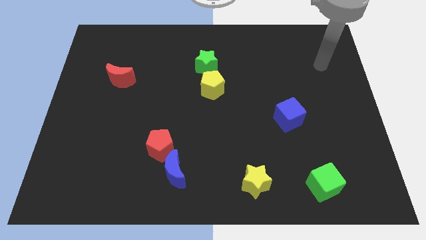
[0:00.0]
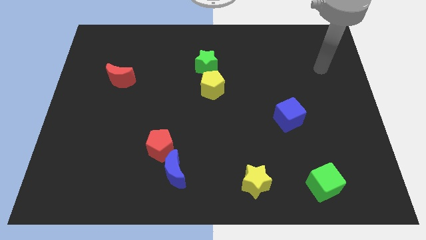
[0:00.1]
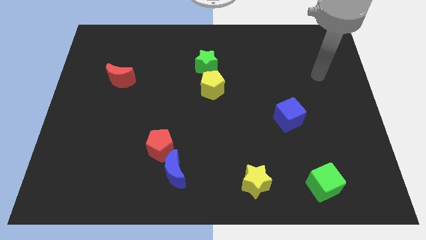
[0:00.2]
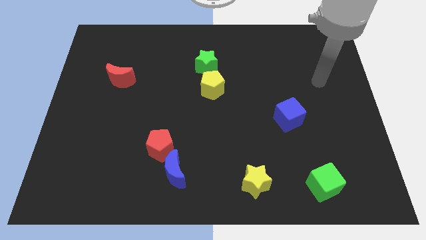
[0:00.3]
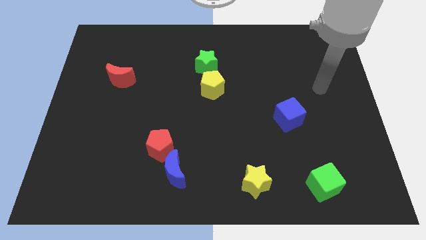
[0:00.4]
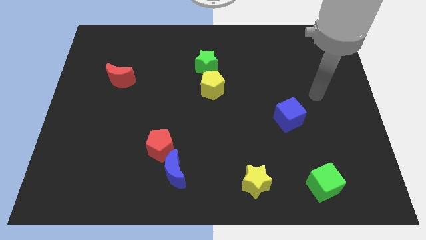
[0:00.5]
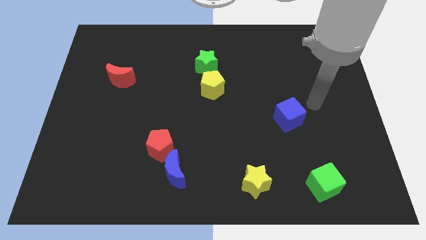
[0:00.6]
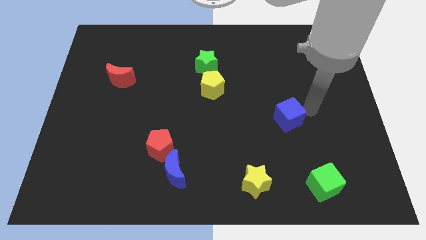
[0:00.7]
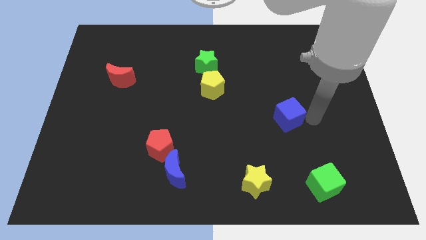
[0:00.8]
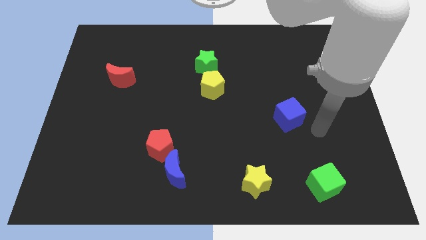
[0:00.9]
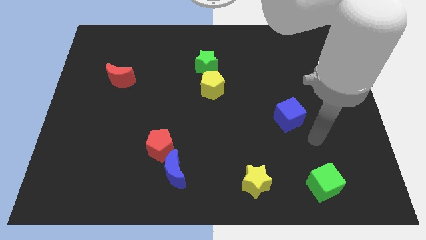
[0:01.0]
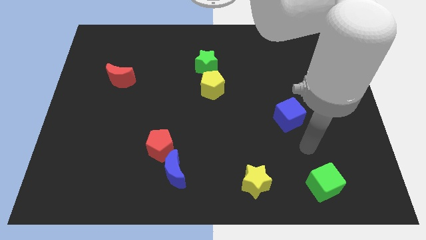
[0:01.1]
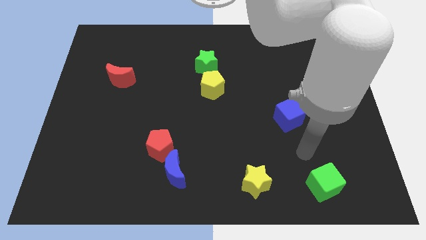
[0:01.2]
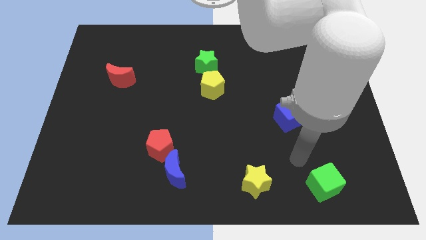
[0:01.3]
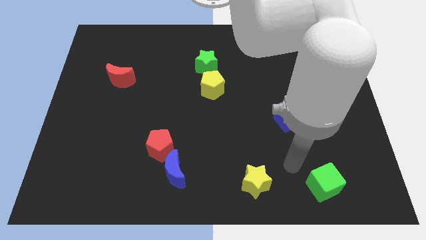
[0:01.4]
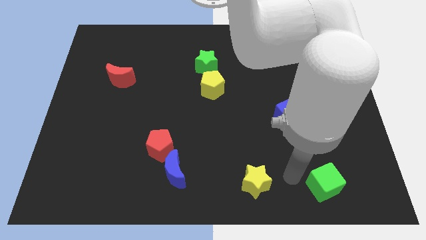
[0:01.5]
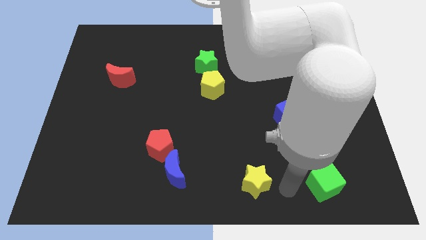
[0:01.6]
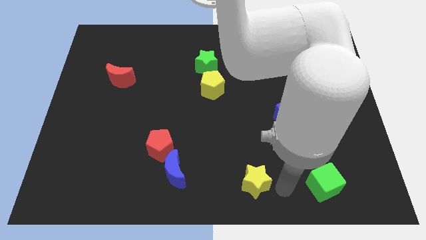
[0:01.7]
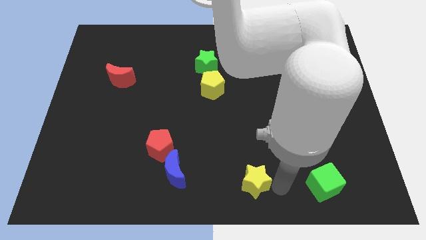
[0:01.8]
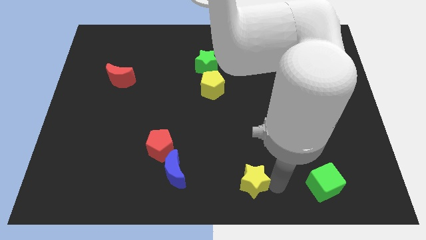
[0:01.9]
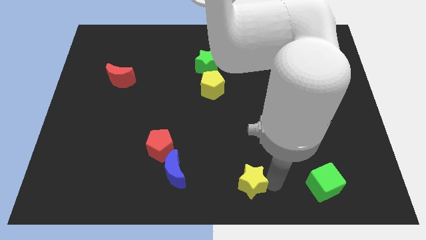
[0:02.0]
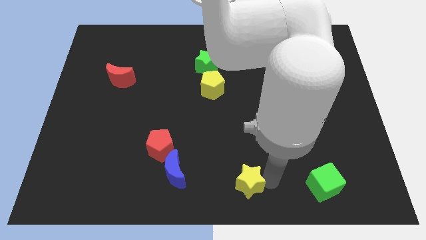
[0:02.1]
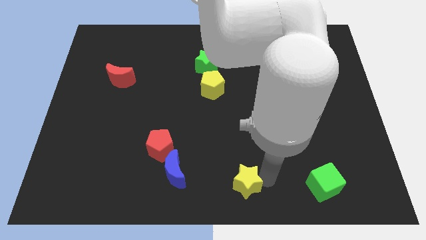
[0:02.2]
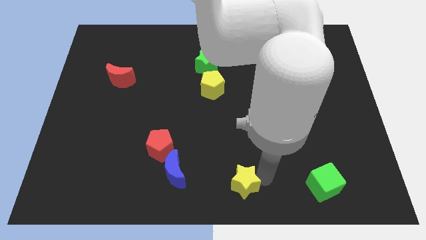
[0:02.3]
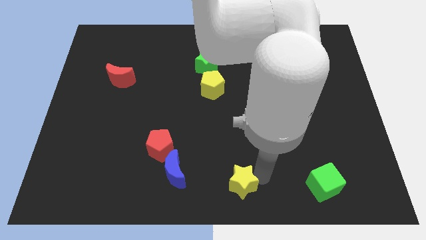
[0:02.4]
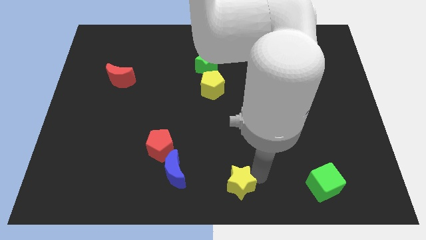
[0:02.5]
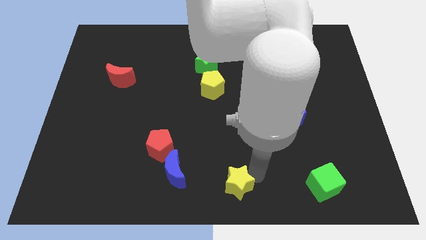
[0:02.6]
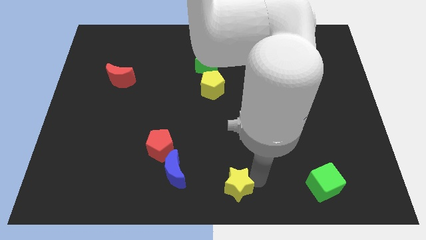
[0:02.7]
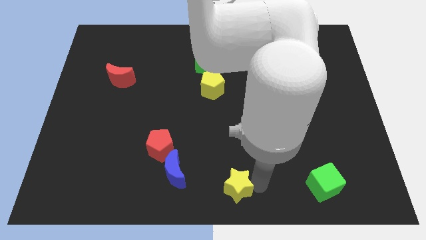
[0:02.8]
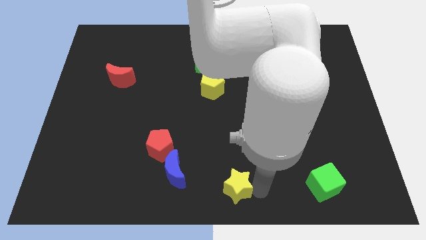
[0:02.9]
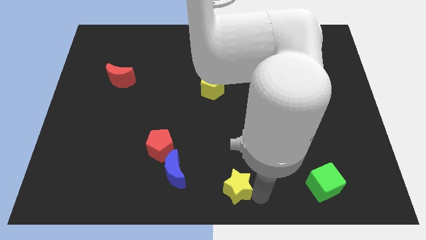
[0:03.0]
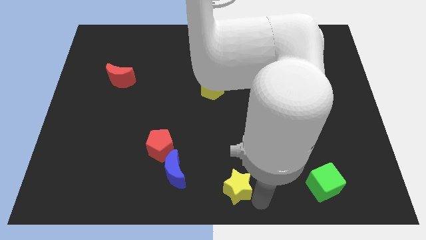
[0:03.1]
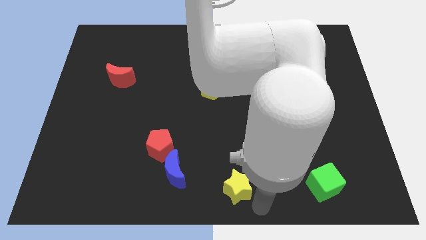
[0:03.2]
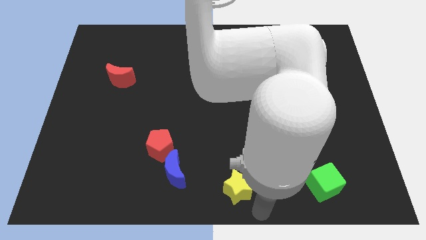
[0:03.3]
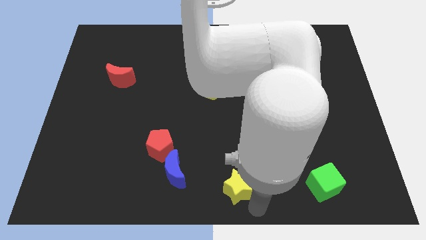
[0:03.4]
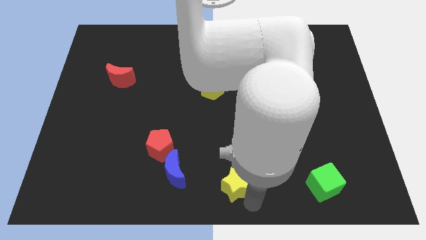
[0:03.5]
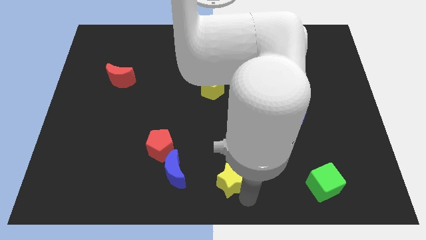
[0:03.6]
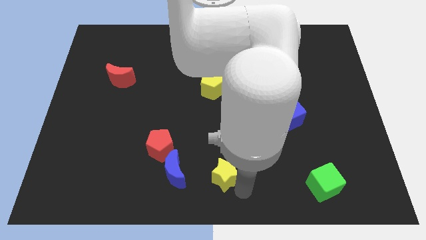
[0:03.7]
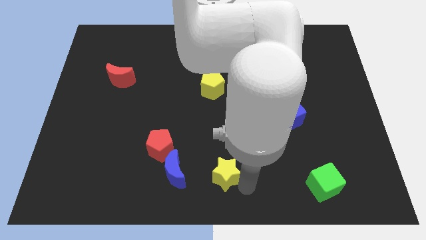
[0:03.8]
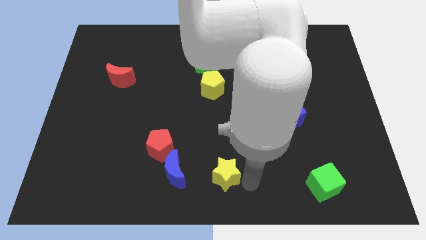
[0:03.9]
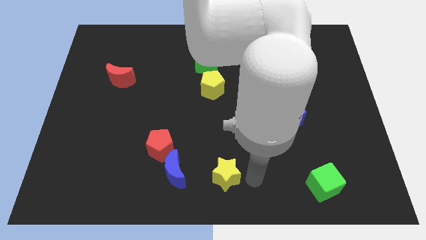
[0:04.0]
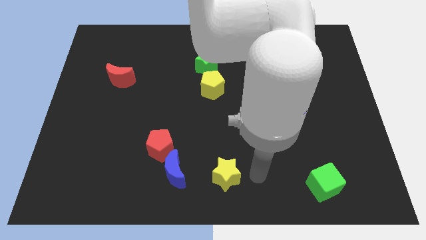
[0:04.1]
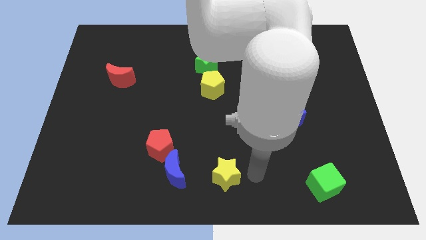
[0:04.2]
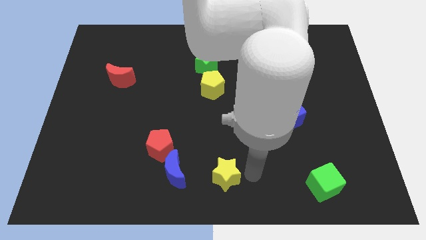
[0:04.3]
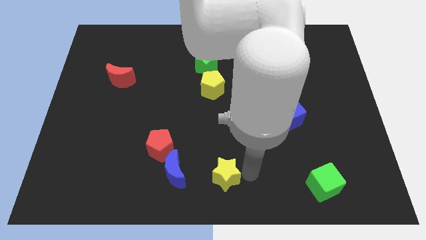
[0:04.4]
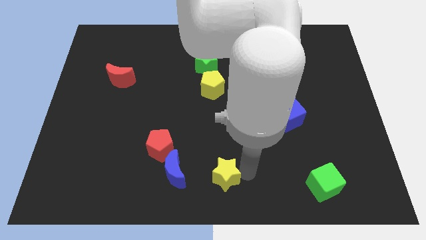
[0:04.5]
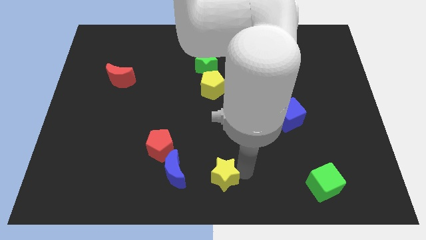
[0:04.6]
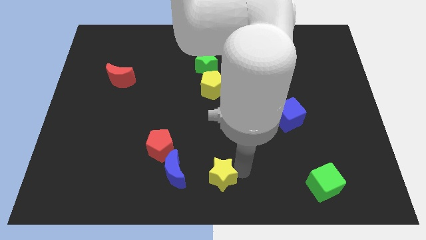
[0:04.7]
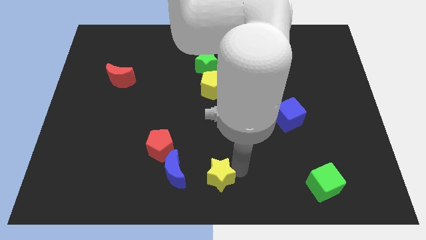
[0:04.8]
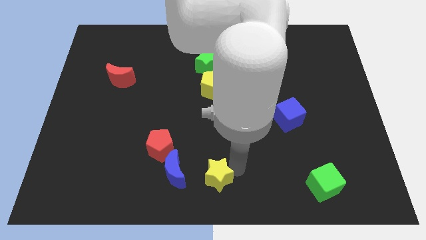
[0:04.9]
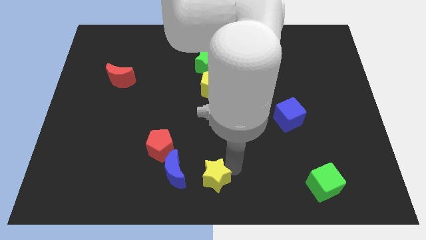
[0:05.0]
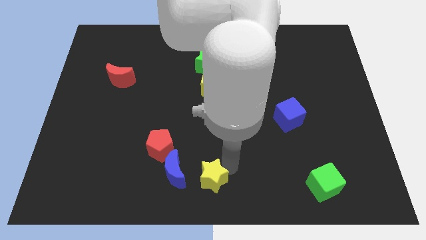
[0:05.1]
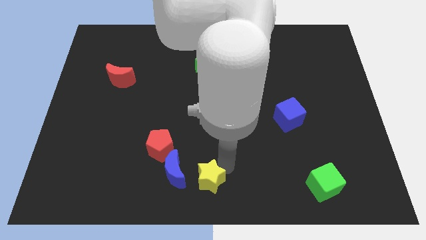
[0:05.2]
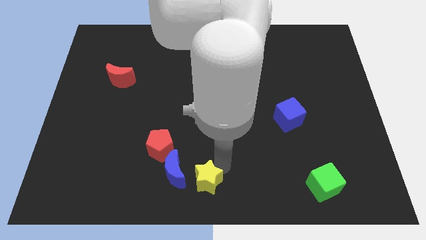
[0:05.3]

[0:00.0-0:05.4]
move the yellow star to the bottom right side of the red pentagon

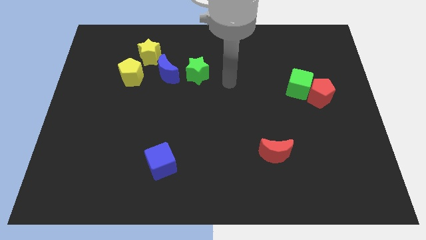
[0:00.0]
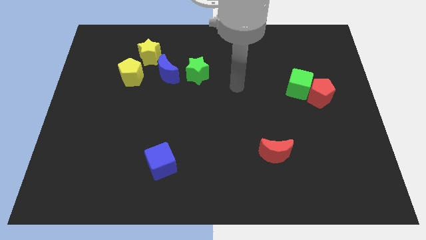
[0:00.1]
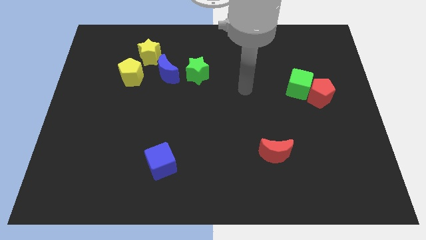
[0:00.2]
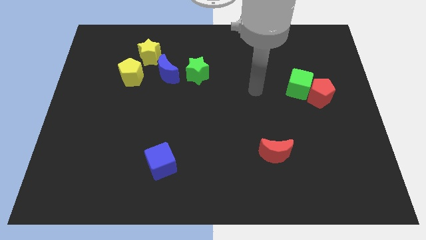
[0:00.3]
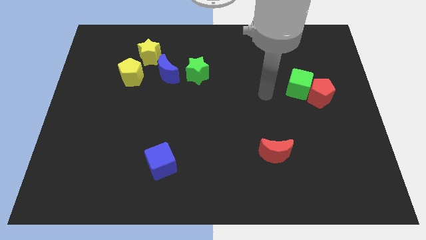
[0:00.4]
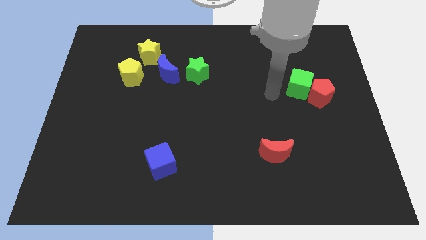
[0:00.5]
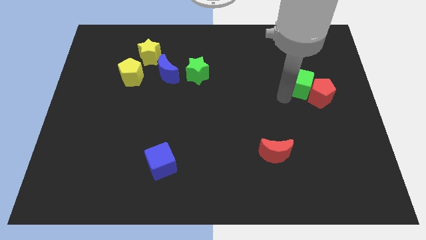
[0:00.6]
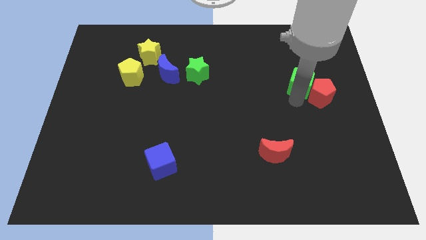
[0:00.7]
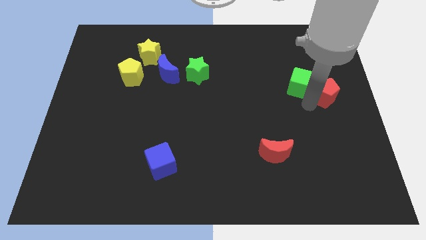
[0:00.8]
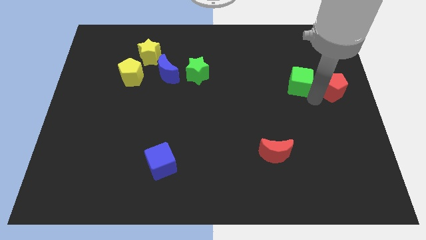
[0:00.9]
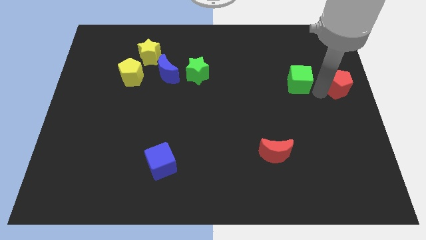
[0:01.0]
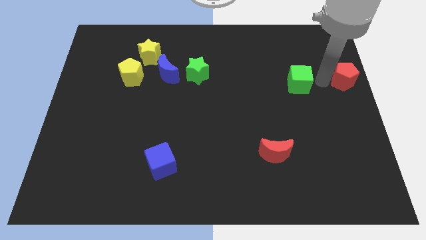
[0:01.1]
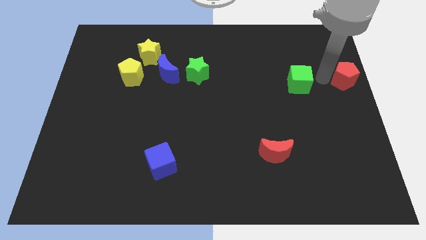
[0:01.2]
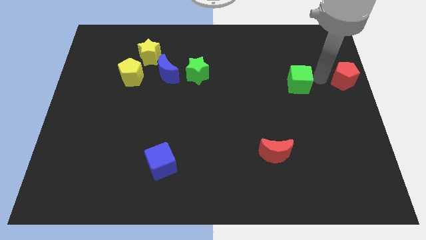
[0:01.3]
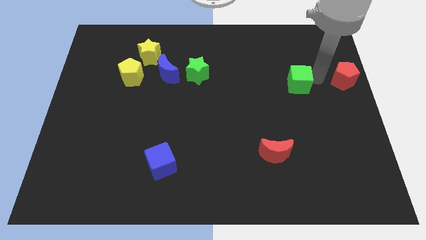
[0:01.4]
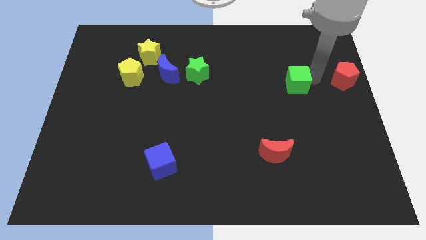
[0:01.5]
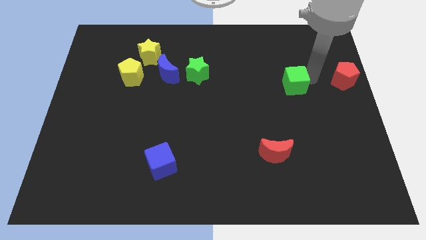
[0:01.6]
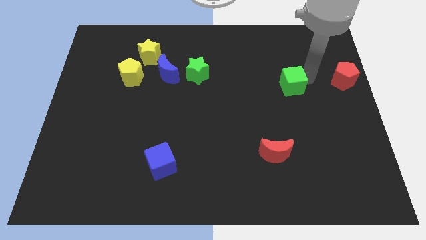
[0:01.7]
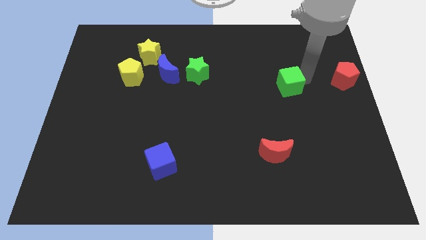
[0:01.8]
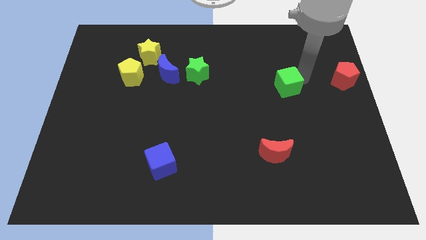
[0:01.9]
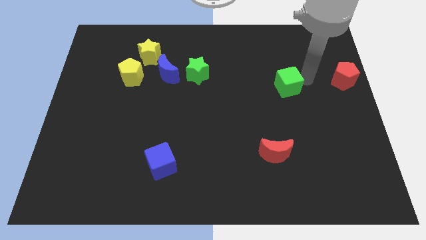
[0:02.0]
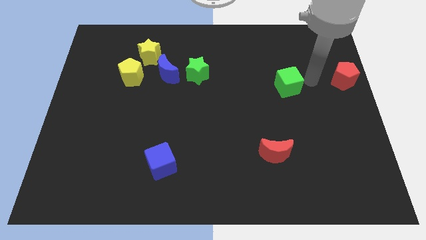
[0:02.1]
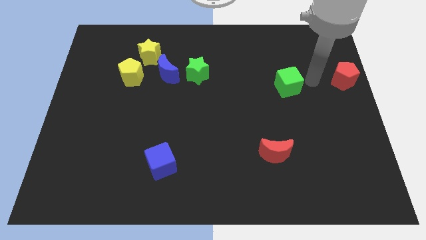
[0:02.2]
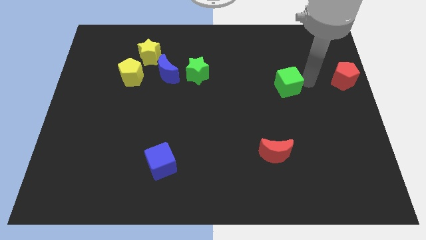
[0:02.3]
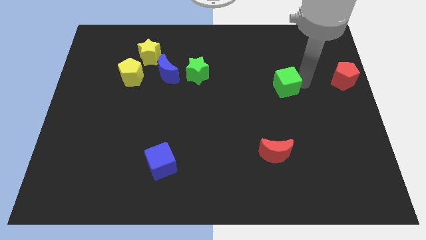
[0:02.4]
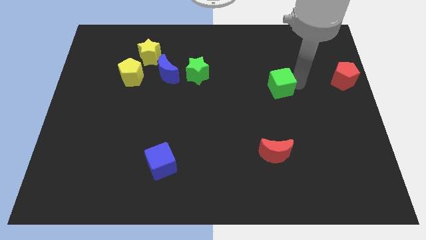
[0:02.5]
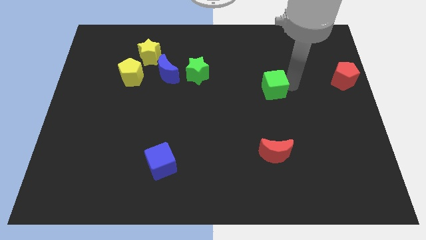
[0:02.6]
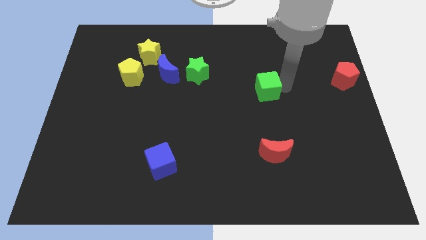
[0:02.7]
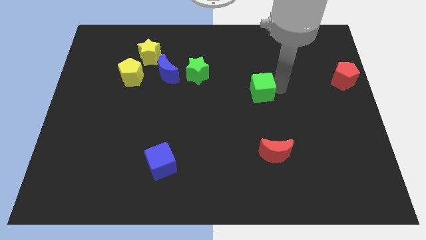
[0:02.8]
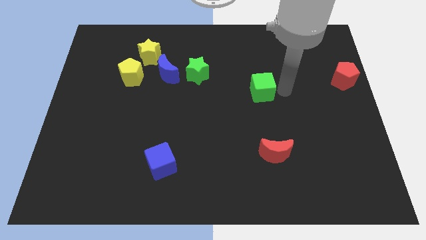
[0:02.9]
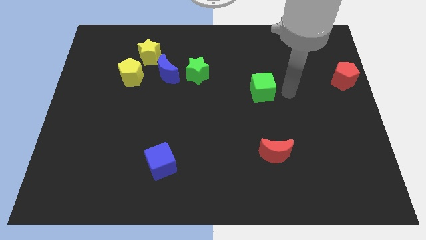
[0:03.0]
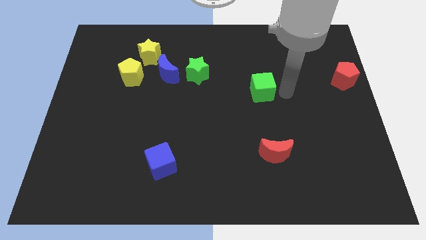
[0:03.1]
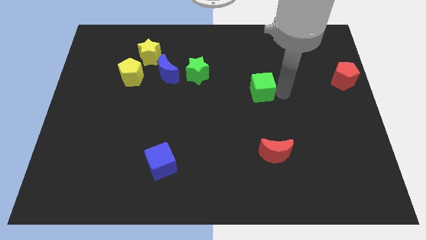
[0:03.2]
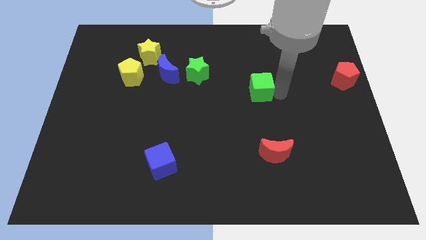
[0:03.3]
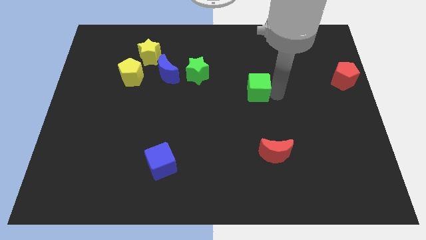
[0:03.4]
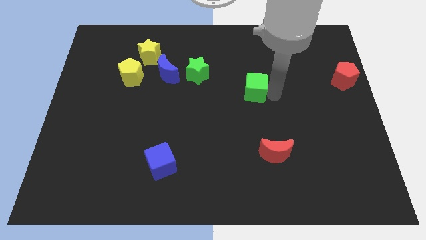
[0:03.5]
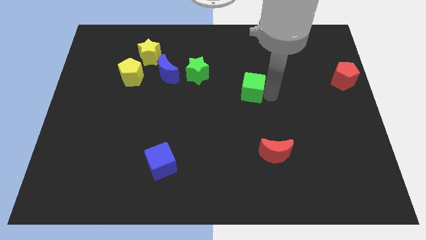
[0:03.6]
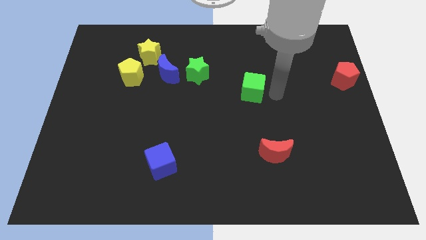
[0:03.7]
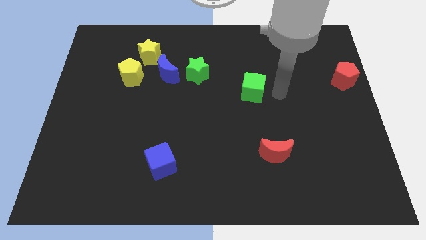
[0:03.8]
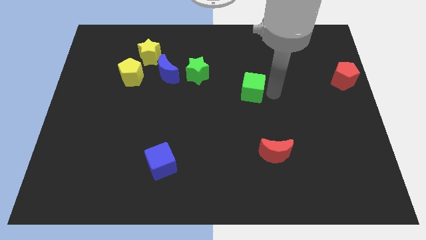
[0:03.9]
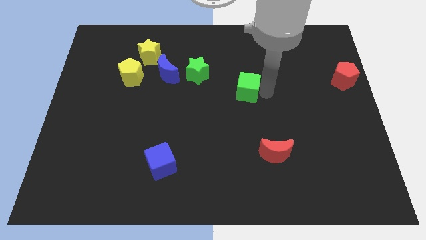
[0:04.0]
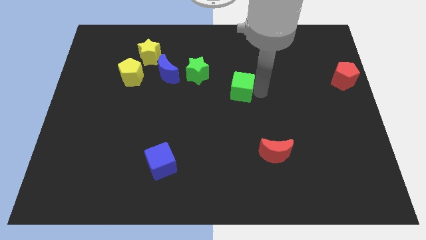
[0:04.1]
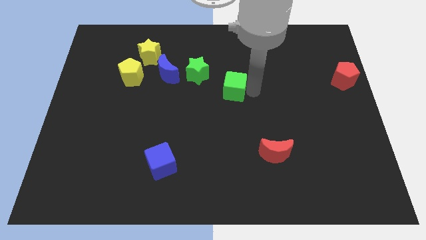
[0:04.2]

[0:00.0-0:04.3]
move the green cube to the bottom right of the green star
